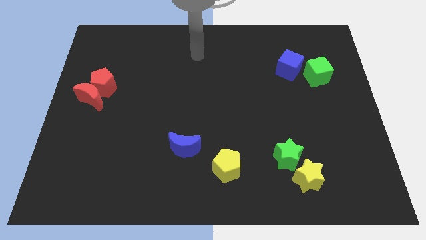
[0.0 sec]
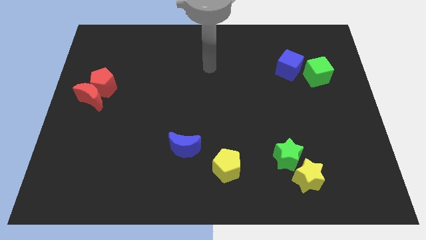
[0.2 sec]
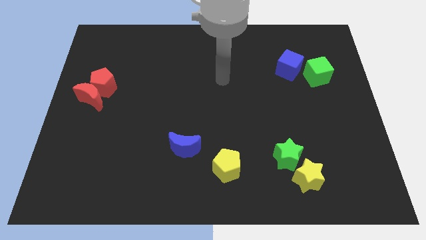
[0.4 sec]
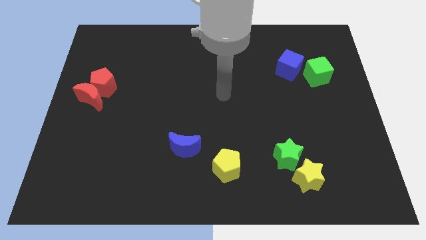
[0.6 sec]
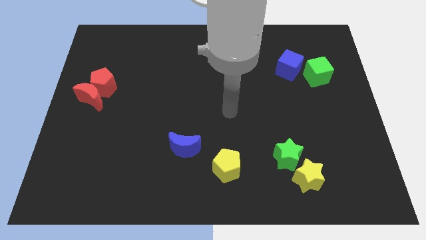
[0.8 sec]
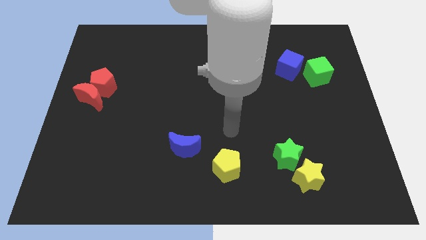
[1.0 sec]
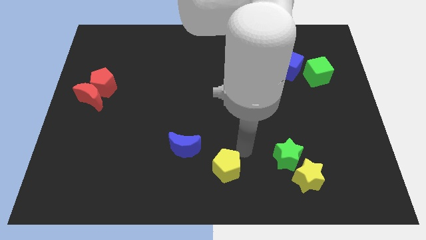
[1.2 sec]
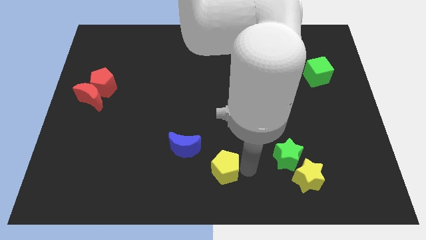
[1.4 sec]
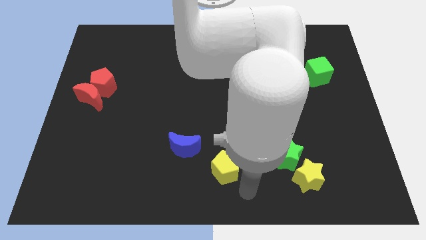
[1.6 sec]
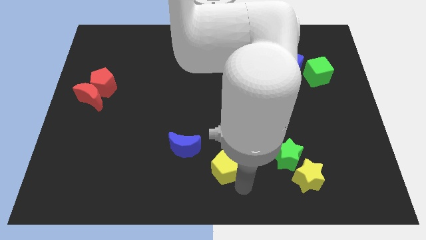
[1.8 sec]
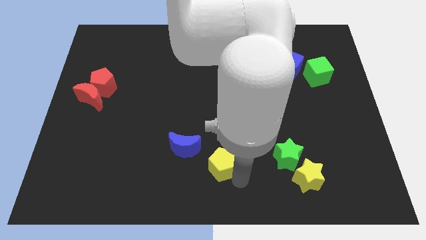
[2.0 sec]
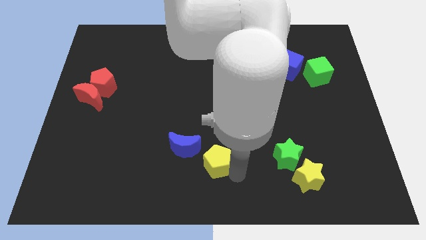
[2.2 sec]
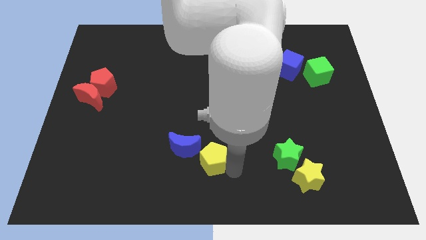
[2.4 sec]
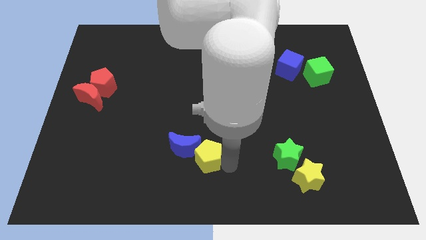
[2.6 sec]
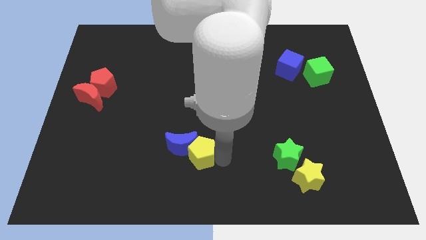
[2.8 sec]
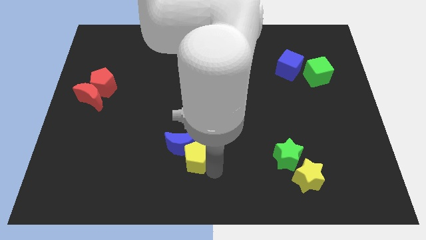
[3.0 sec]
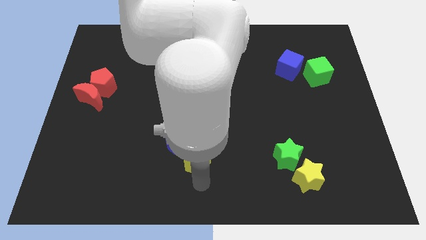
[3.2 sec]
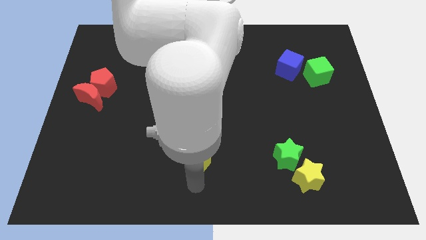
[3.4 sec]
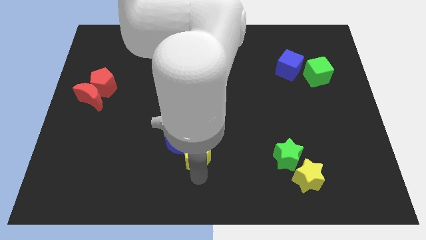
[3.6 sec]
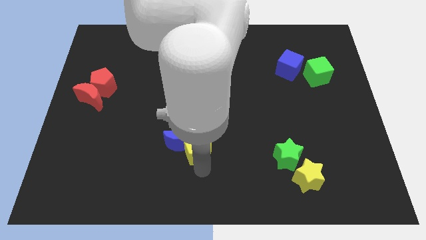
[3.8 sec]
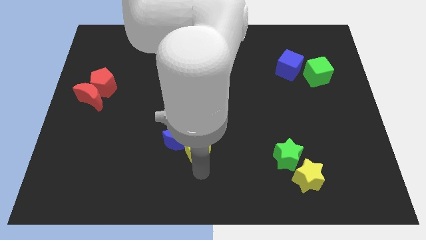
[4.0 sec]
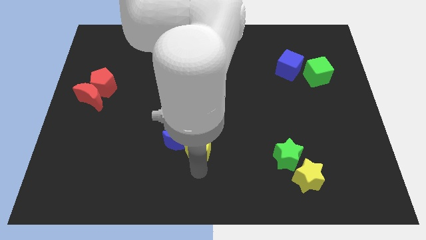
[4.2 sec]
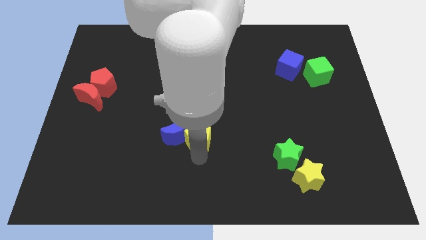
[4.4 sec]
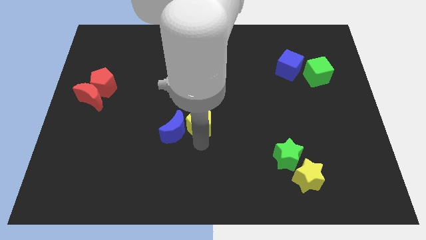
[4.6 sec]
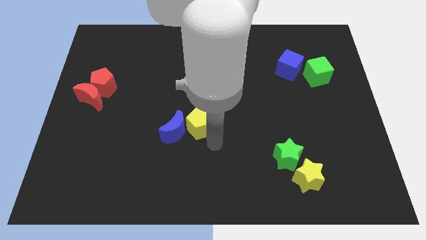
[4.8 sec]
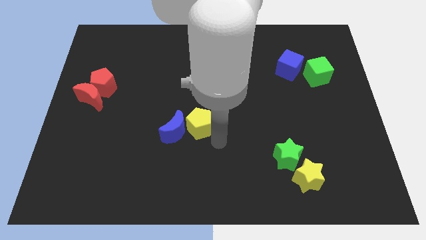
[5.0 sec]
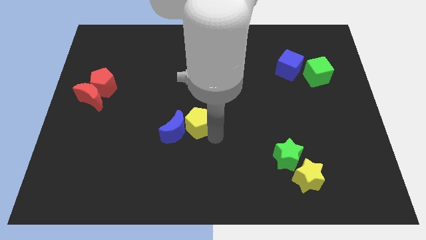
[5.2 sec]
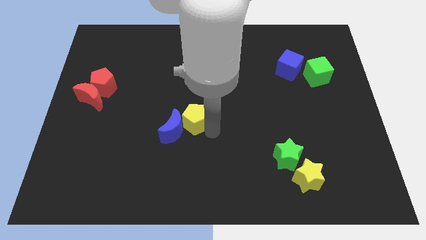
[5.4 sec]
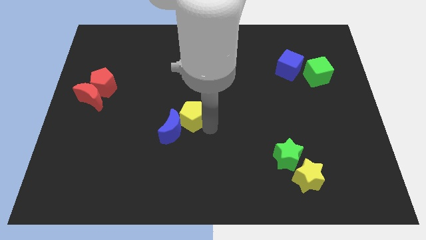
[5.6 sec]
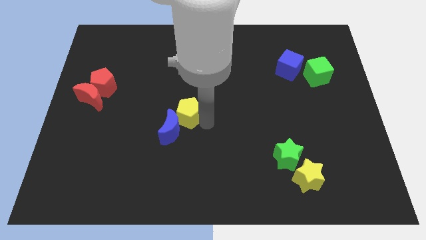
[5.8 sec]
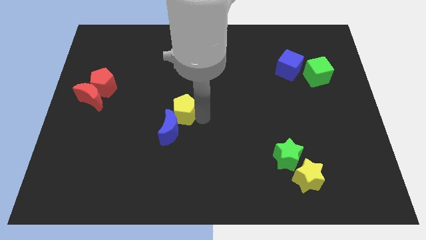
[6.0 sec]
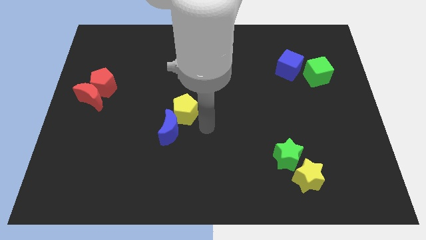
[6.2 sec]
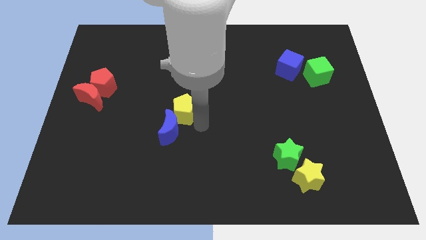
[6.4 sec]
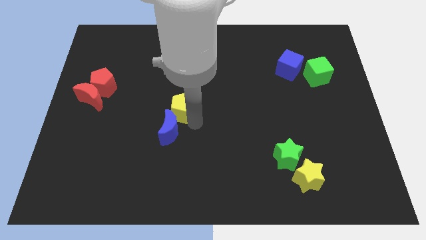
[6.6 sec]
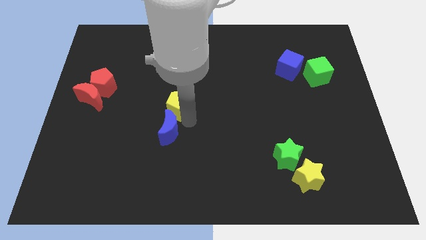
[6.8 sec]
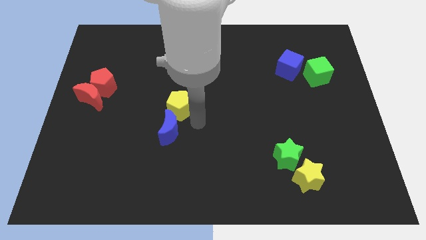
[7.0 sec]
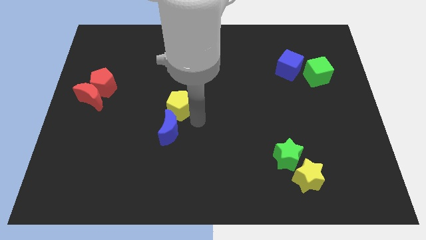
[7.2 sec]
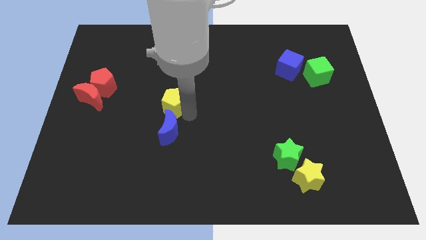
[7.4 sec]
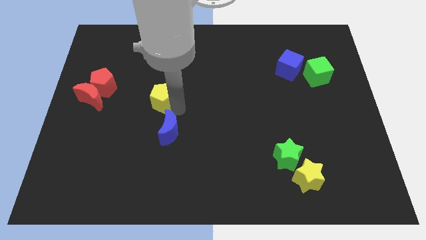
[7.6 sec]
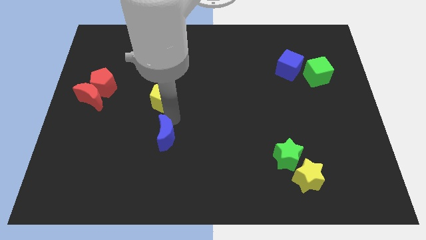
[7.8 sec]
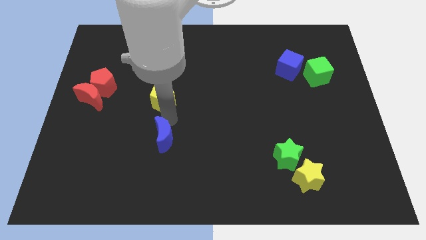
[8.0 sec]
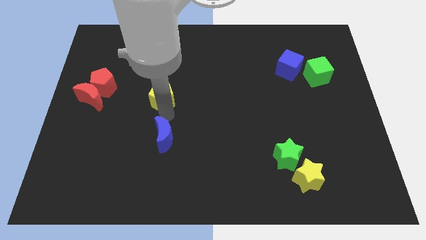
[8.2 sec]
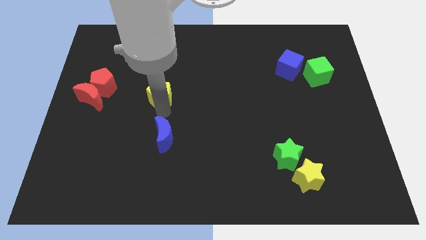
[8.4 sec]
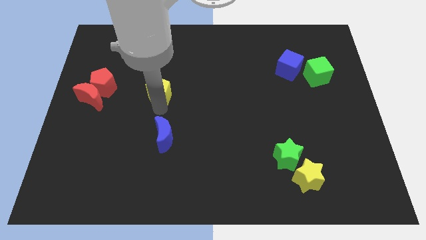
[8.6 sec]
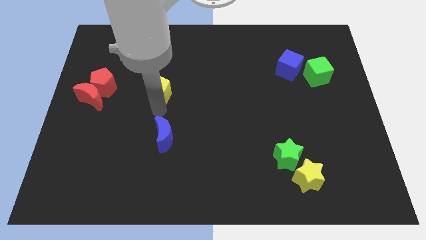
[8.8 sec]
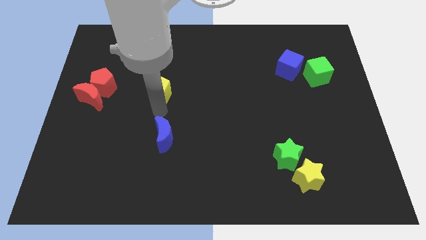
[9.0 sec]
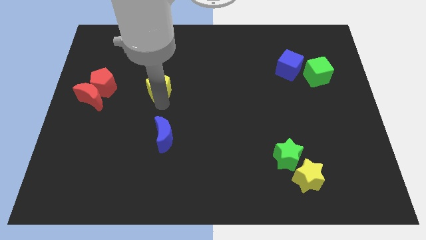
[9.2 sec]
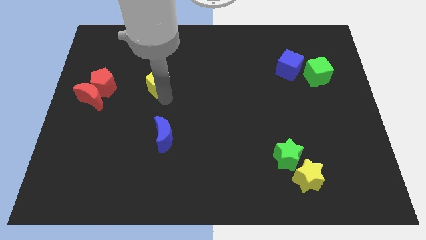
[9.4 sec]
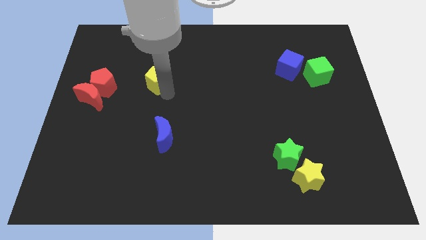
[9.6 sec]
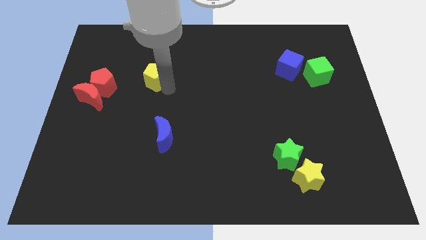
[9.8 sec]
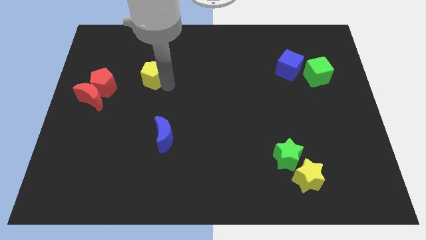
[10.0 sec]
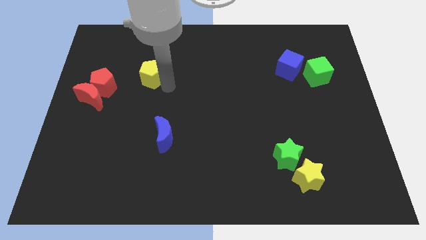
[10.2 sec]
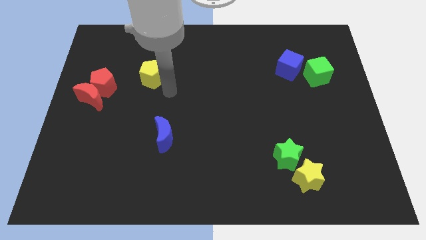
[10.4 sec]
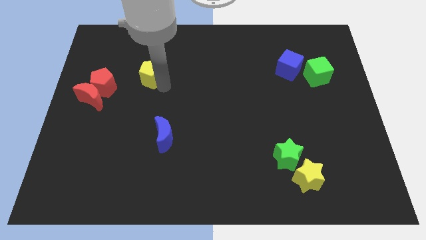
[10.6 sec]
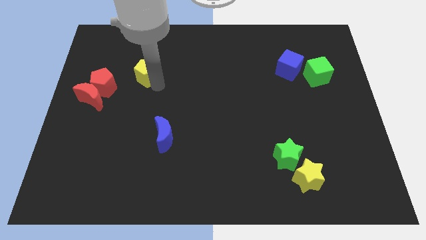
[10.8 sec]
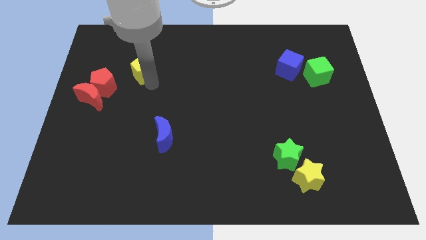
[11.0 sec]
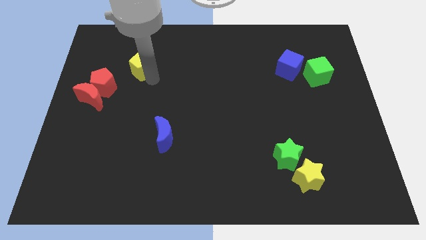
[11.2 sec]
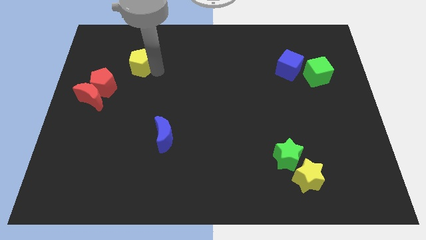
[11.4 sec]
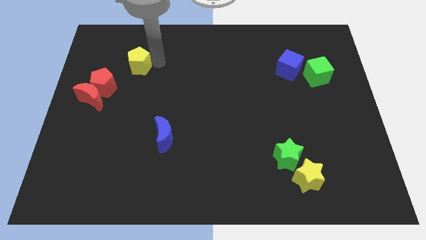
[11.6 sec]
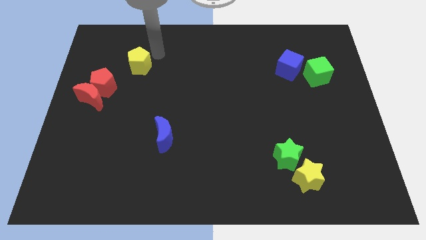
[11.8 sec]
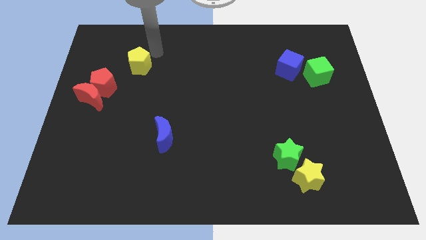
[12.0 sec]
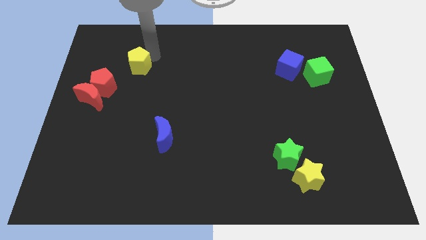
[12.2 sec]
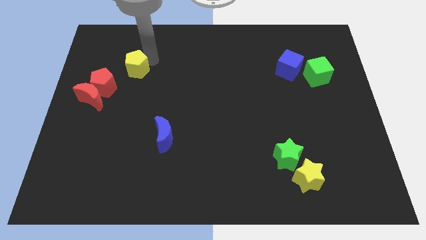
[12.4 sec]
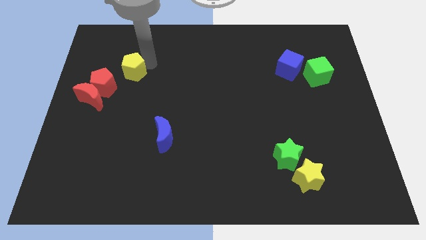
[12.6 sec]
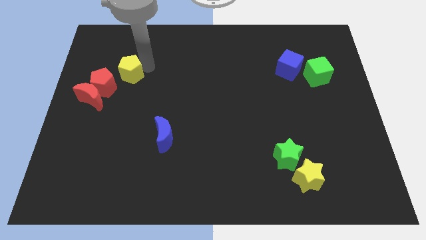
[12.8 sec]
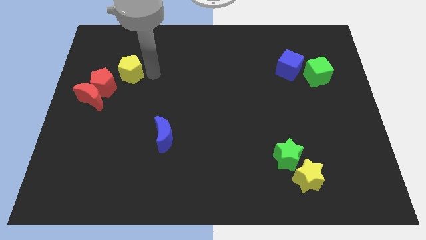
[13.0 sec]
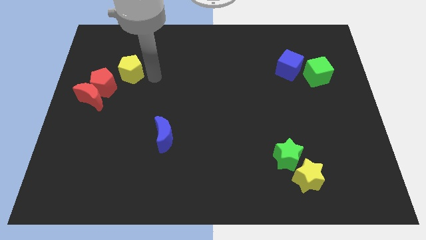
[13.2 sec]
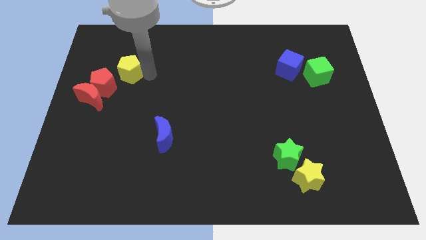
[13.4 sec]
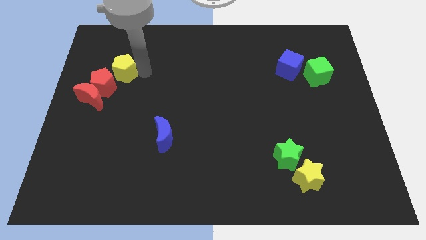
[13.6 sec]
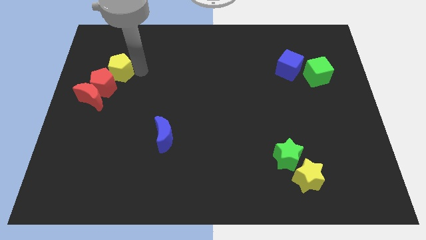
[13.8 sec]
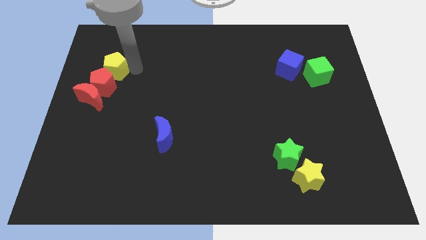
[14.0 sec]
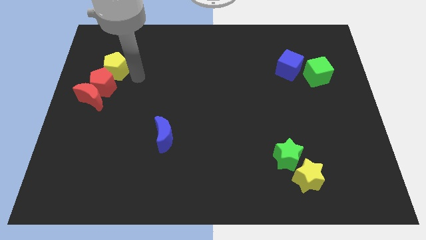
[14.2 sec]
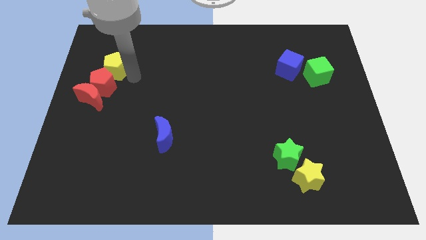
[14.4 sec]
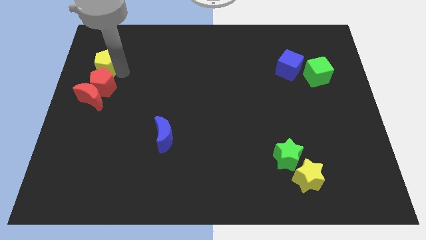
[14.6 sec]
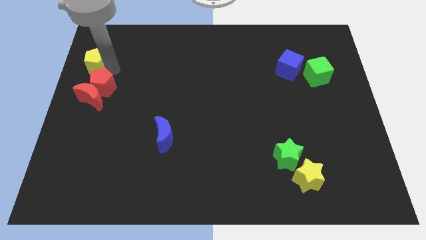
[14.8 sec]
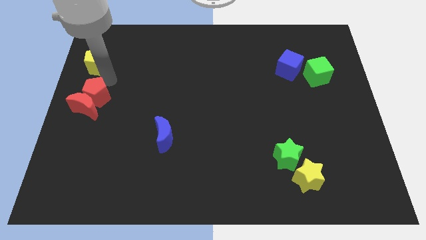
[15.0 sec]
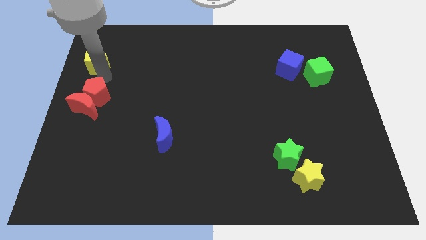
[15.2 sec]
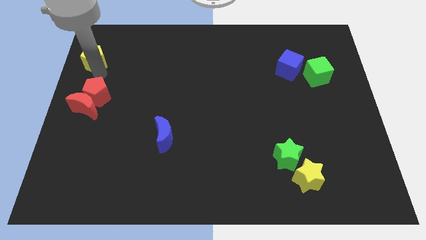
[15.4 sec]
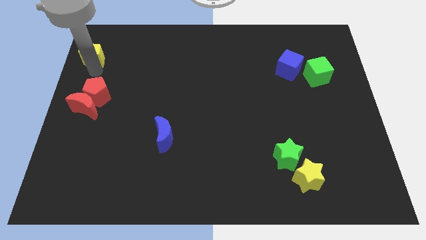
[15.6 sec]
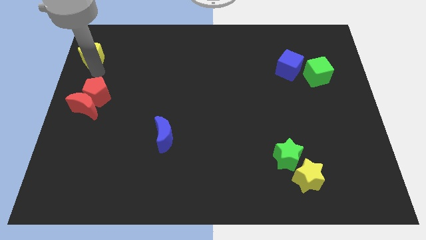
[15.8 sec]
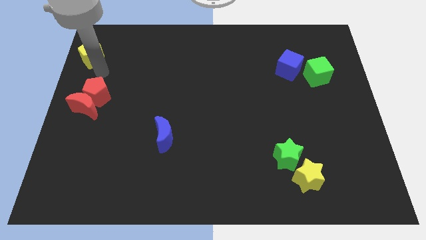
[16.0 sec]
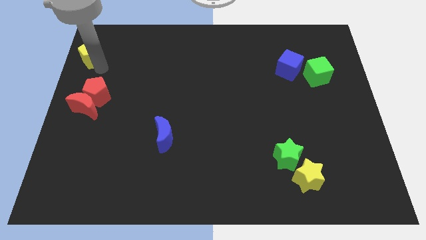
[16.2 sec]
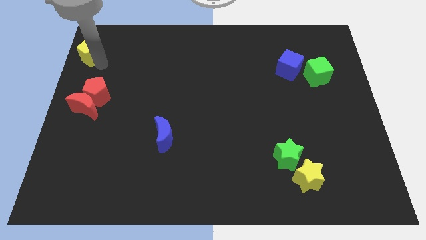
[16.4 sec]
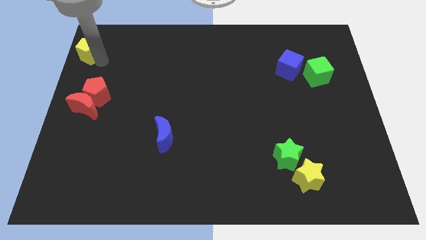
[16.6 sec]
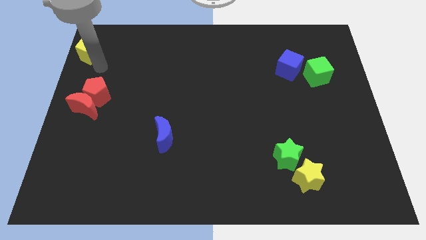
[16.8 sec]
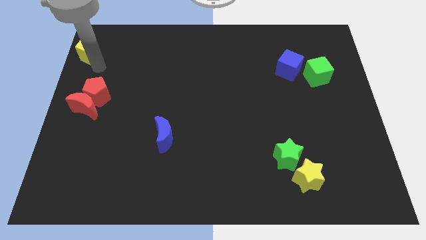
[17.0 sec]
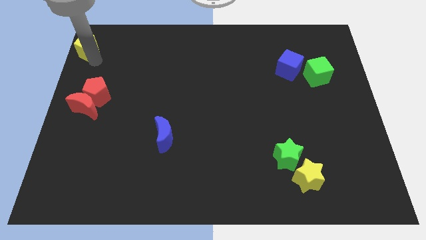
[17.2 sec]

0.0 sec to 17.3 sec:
move the yellow pentagon to the top left corner
